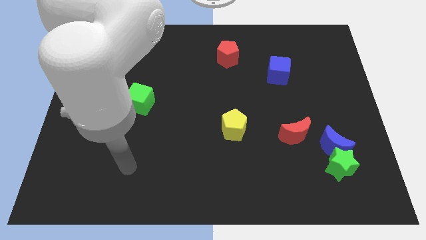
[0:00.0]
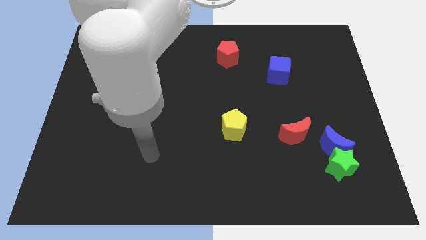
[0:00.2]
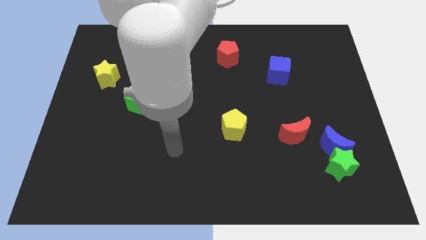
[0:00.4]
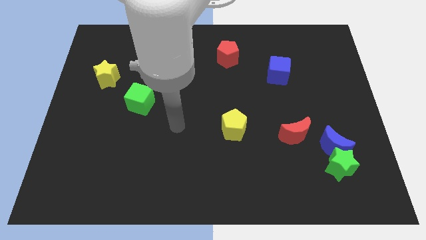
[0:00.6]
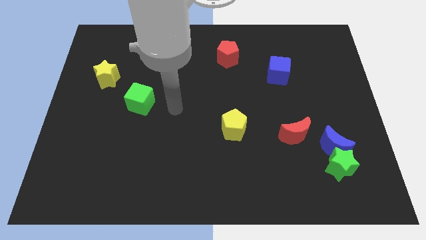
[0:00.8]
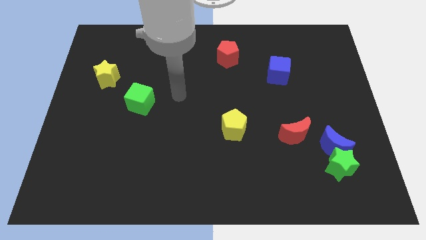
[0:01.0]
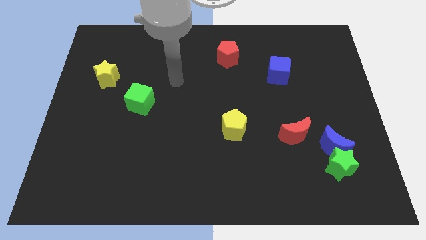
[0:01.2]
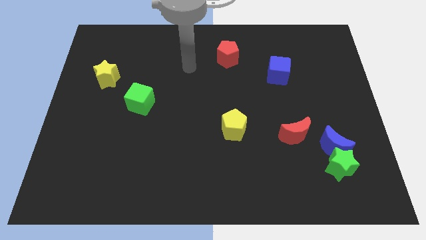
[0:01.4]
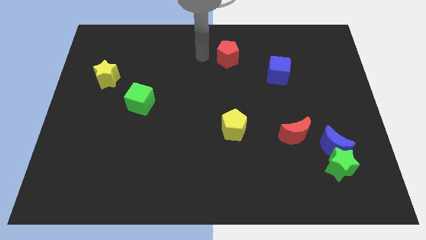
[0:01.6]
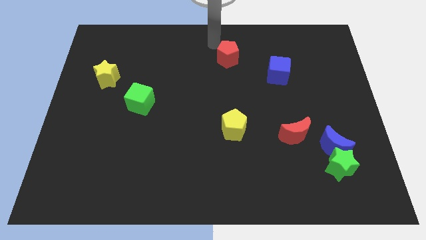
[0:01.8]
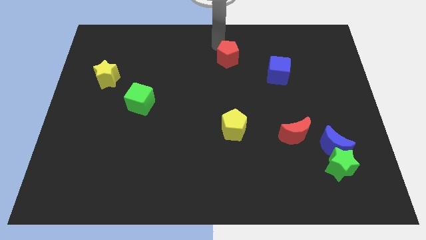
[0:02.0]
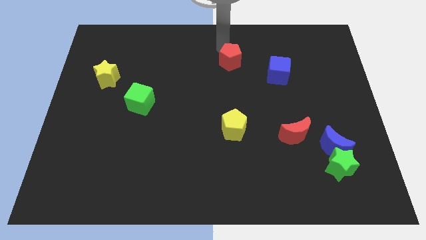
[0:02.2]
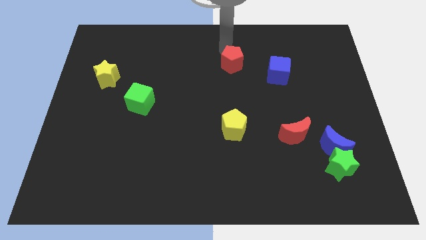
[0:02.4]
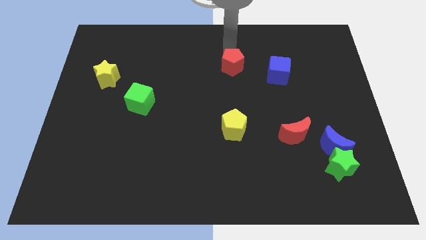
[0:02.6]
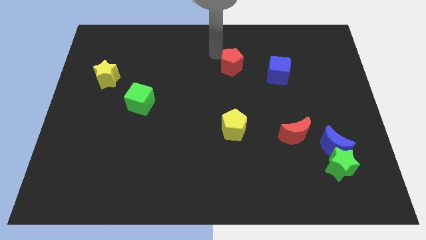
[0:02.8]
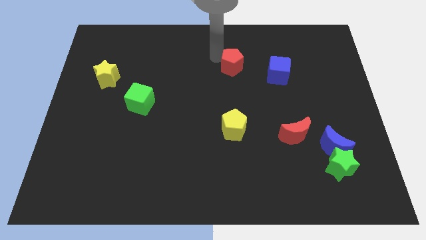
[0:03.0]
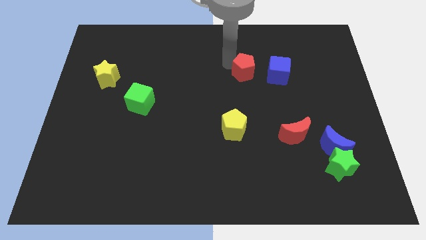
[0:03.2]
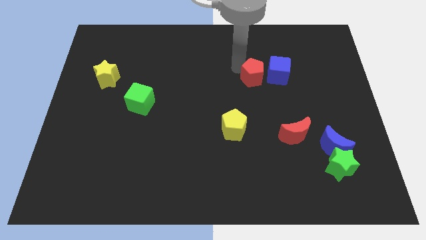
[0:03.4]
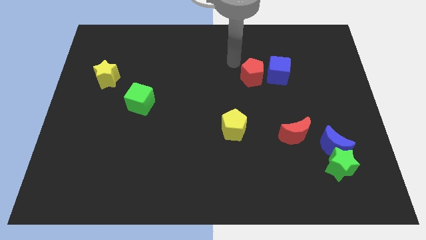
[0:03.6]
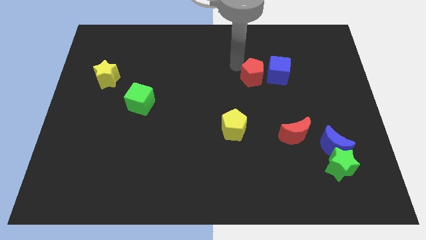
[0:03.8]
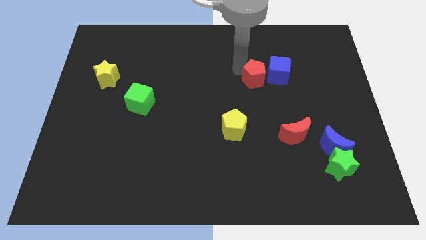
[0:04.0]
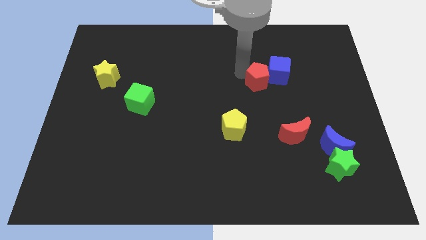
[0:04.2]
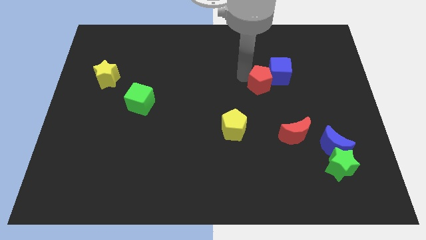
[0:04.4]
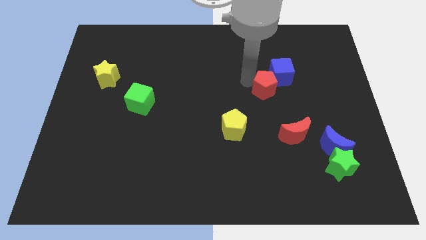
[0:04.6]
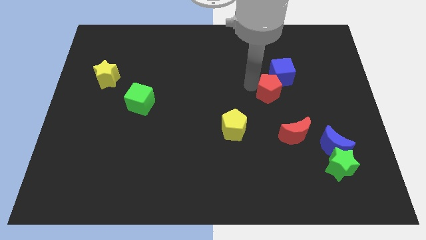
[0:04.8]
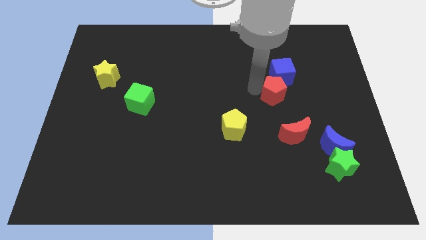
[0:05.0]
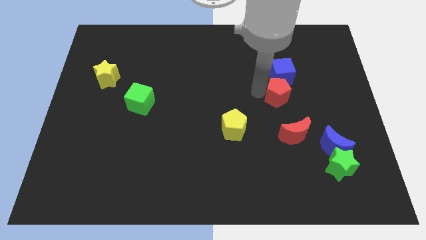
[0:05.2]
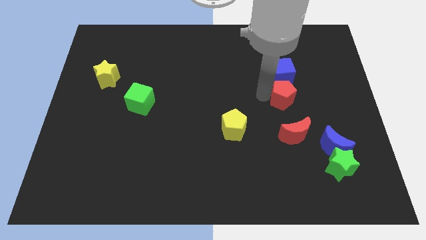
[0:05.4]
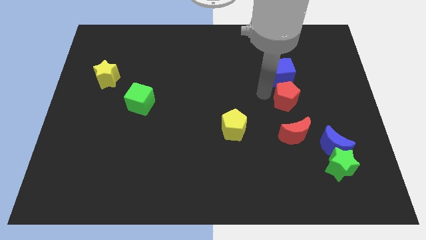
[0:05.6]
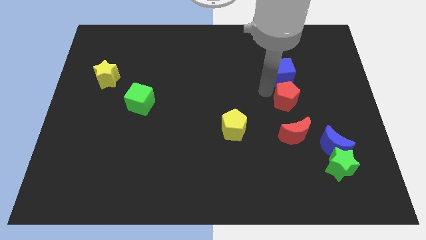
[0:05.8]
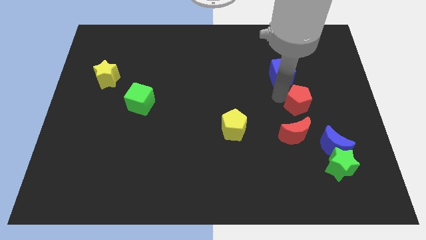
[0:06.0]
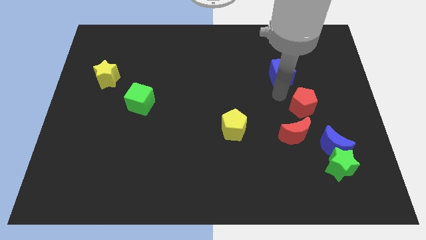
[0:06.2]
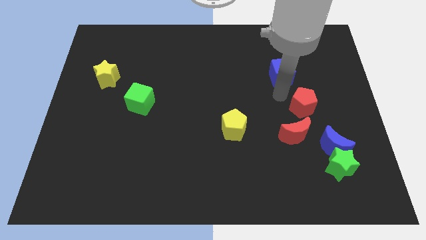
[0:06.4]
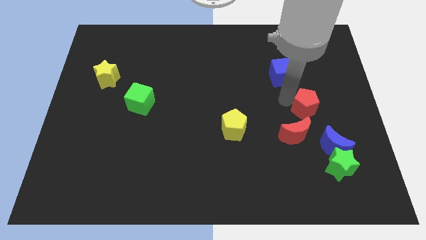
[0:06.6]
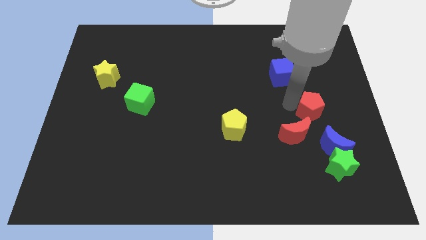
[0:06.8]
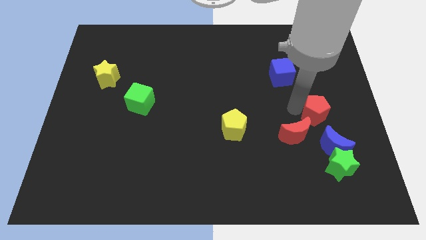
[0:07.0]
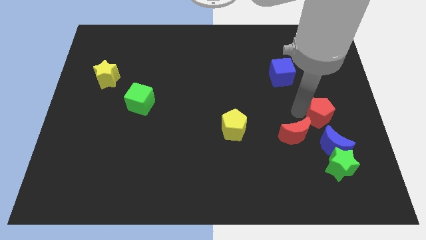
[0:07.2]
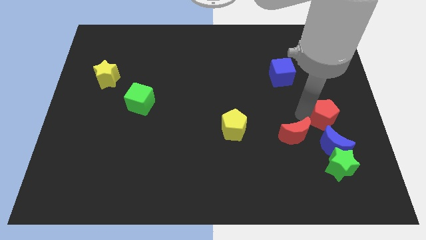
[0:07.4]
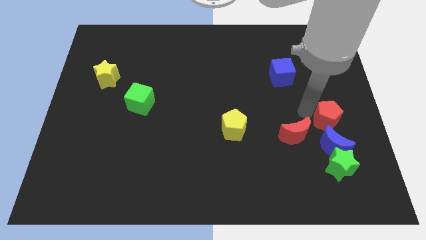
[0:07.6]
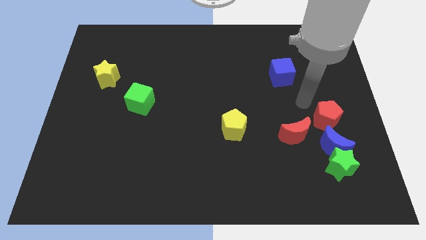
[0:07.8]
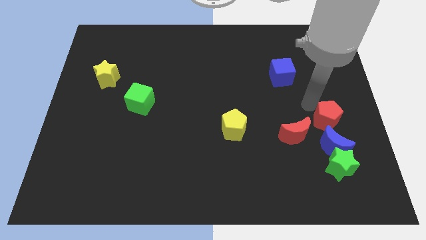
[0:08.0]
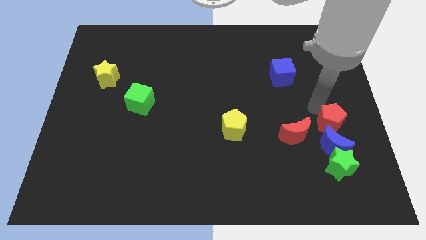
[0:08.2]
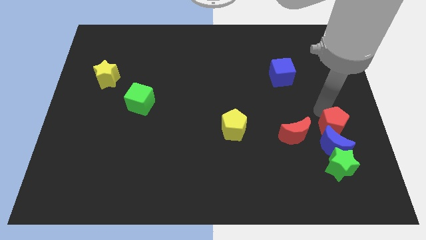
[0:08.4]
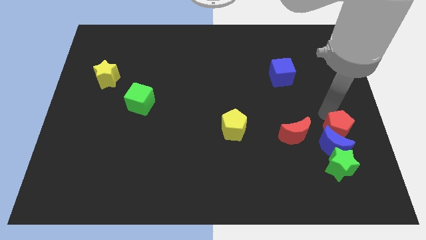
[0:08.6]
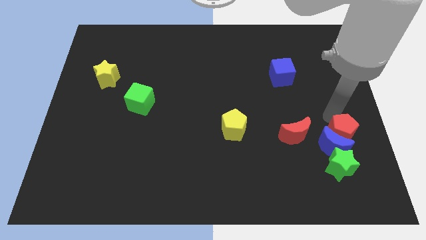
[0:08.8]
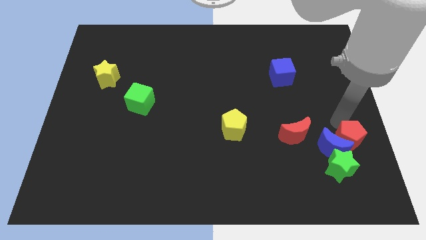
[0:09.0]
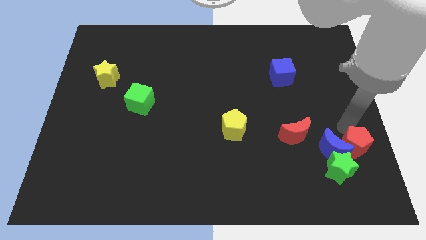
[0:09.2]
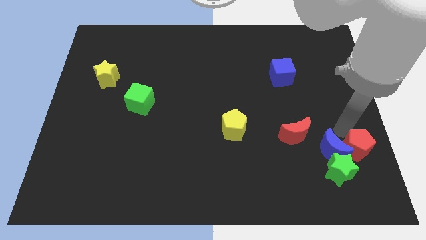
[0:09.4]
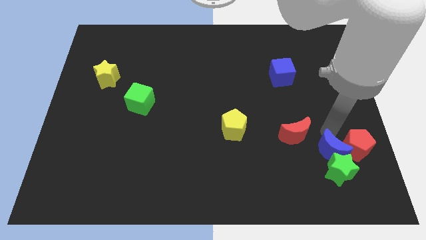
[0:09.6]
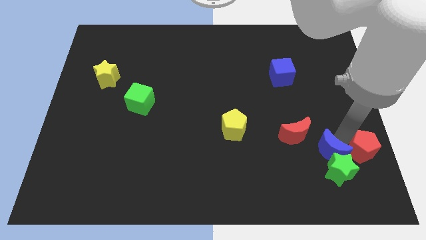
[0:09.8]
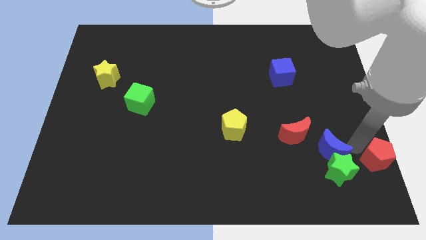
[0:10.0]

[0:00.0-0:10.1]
move the red pentagon to the bottom right

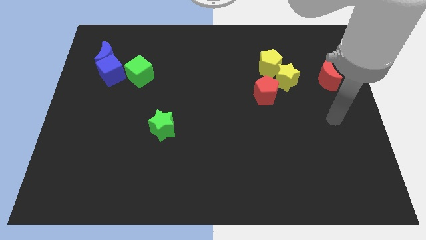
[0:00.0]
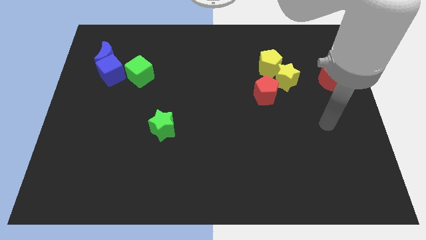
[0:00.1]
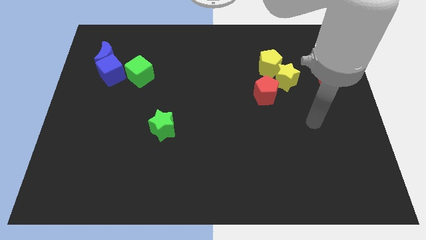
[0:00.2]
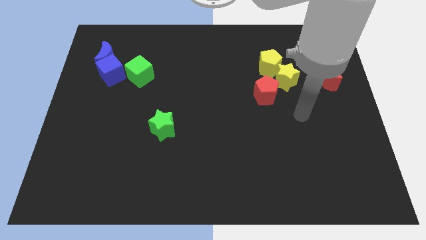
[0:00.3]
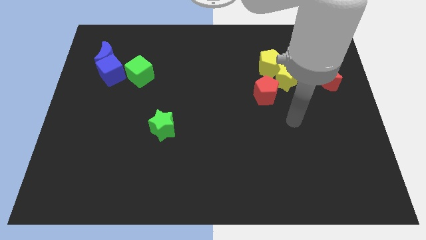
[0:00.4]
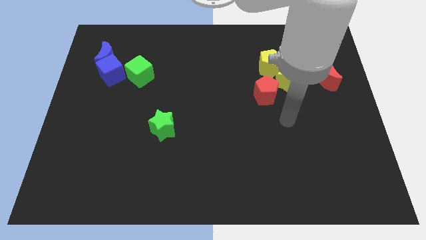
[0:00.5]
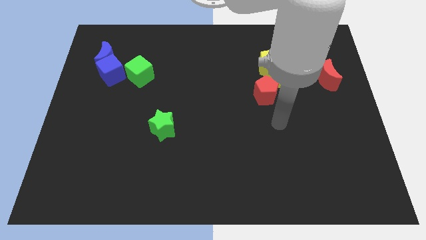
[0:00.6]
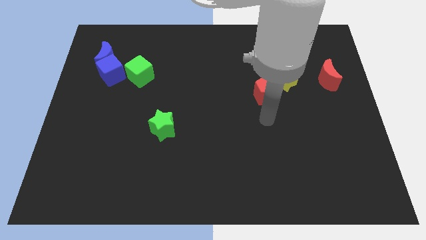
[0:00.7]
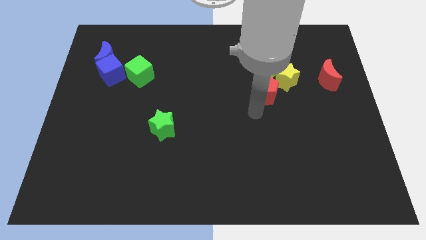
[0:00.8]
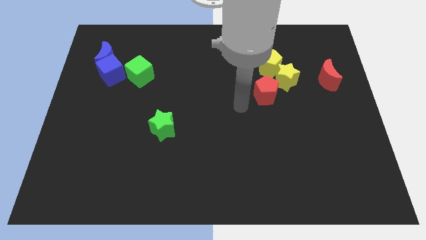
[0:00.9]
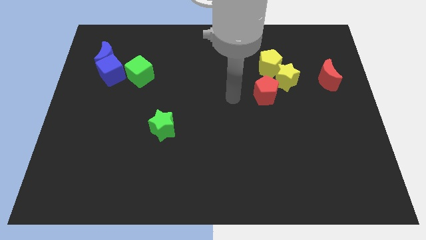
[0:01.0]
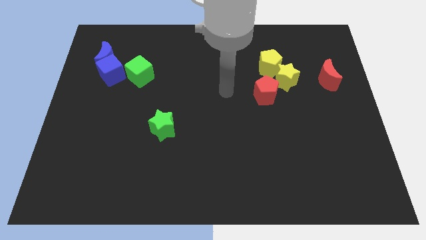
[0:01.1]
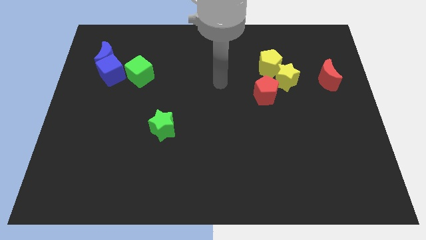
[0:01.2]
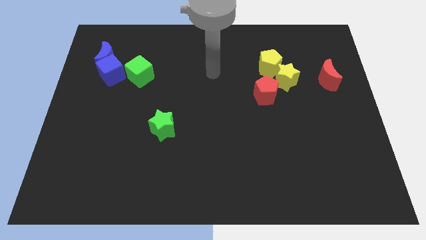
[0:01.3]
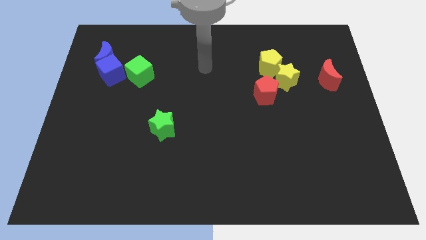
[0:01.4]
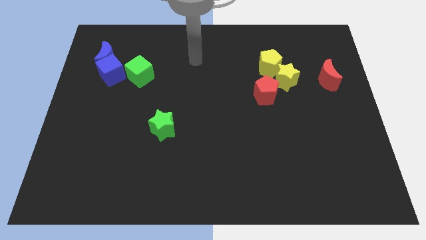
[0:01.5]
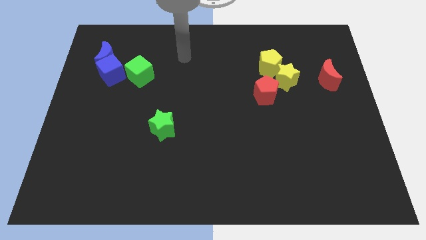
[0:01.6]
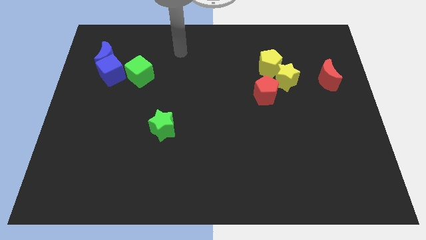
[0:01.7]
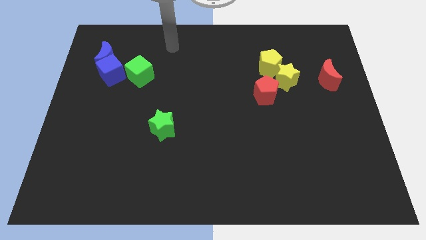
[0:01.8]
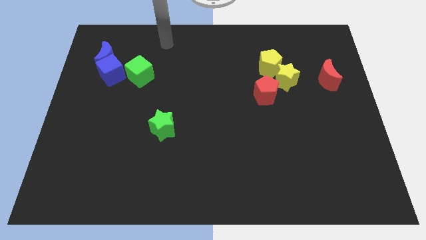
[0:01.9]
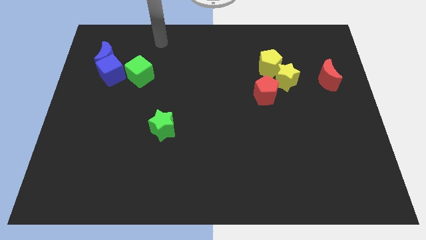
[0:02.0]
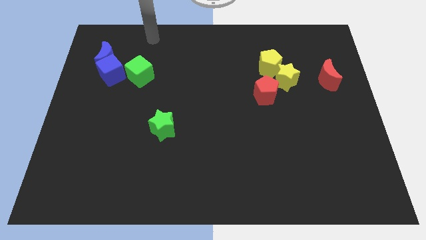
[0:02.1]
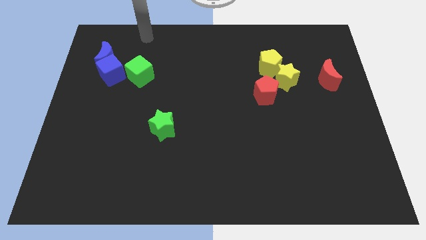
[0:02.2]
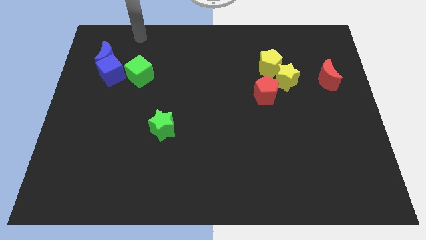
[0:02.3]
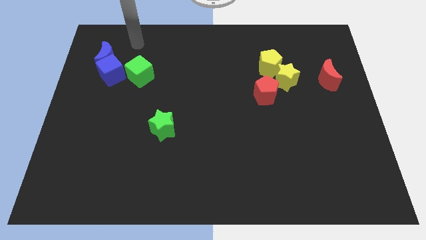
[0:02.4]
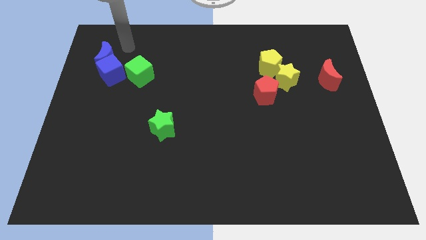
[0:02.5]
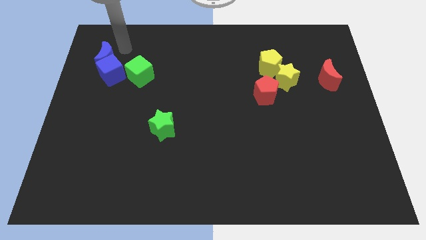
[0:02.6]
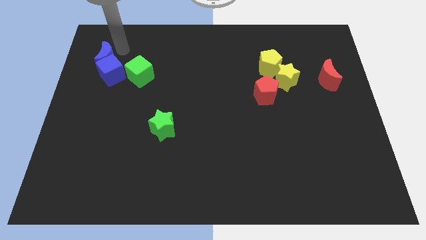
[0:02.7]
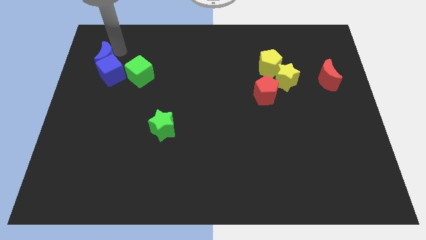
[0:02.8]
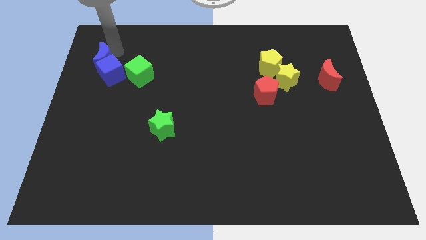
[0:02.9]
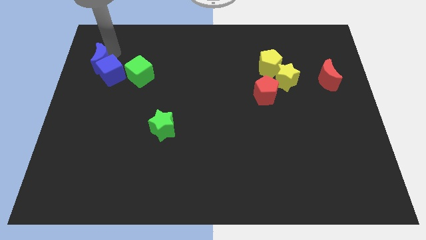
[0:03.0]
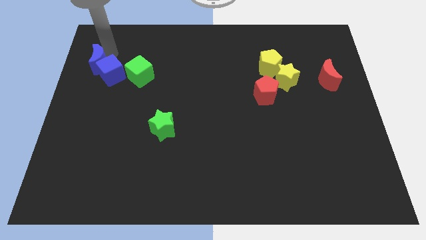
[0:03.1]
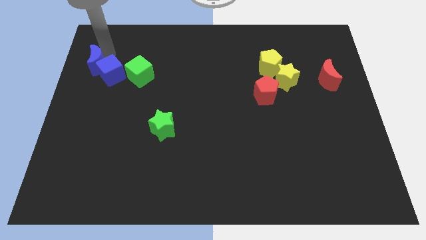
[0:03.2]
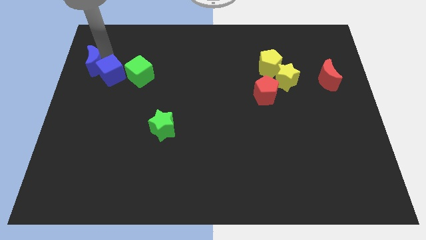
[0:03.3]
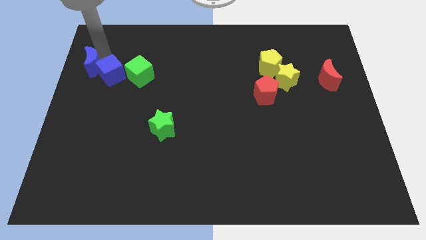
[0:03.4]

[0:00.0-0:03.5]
move the blue moon to the left side of the board
